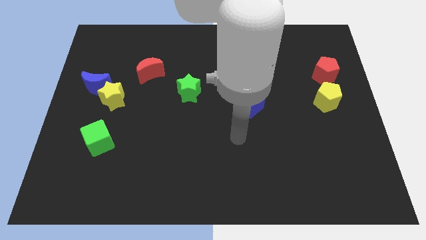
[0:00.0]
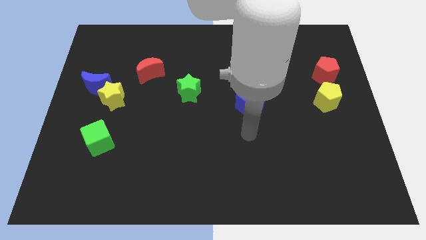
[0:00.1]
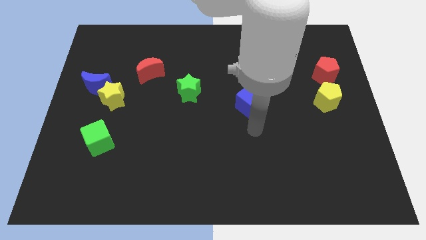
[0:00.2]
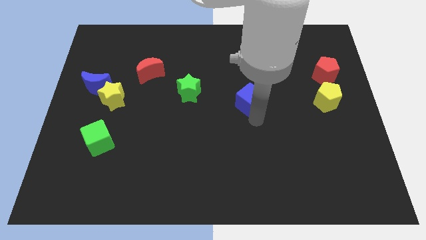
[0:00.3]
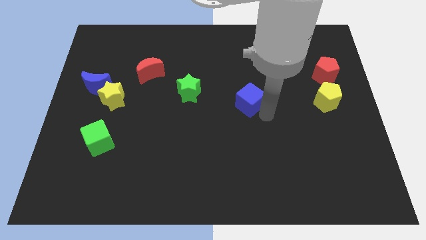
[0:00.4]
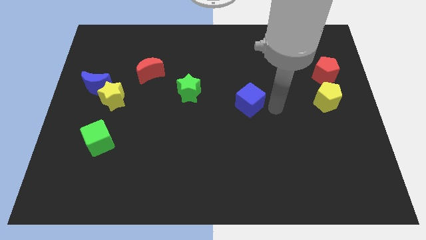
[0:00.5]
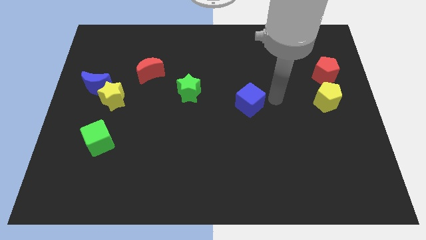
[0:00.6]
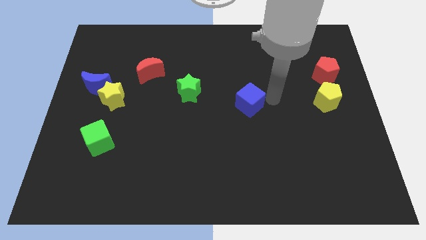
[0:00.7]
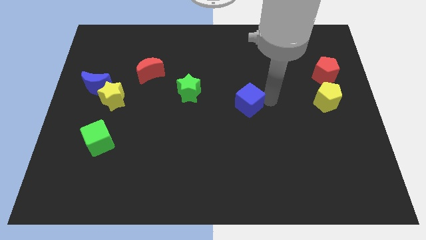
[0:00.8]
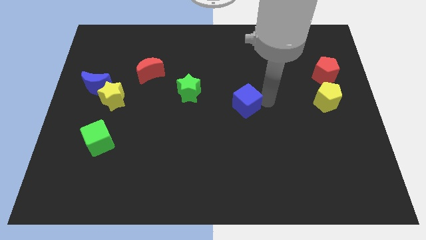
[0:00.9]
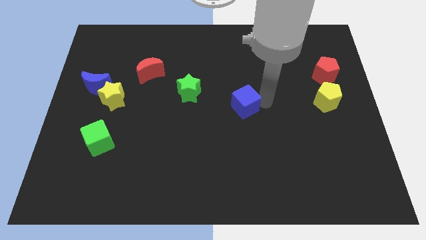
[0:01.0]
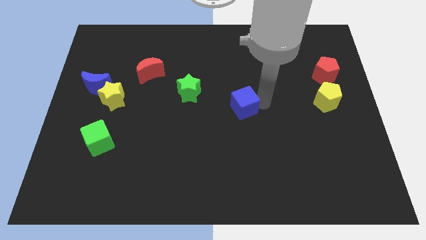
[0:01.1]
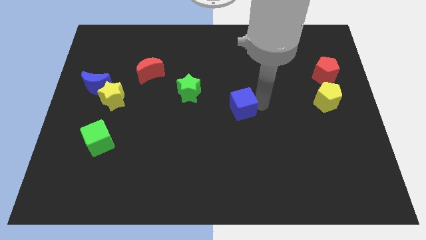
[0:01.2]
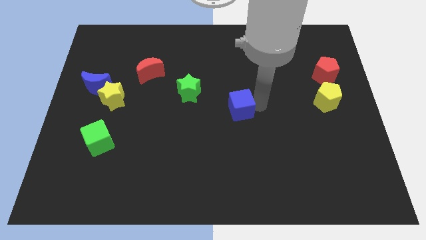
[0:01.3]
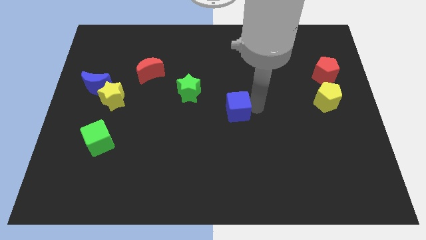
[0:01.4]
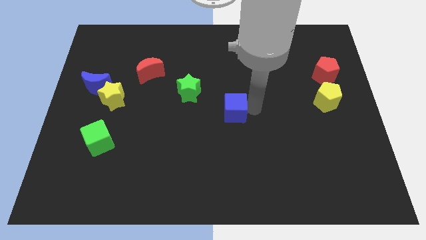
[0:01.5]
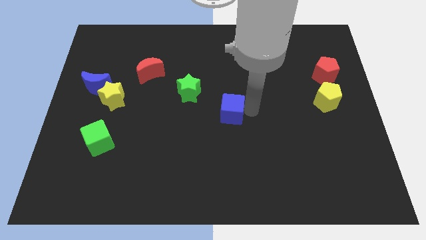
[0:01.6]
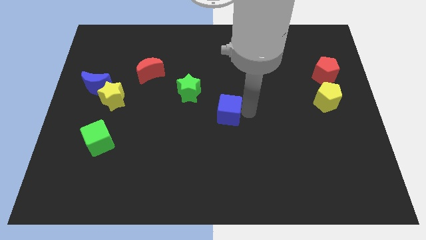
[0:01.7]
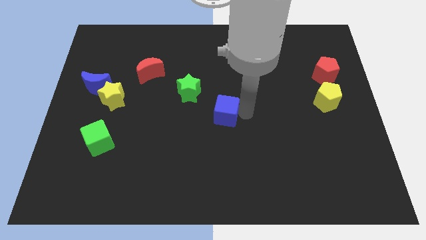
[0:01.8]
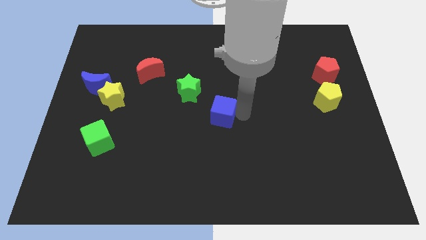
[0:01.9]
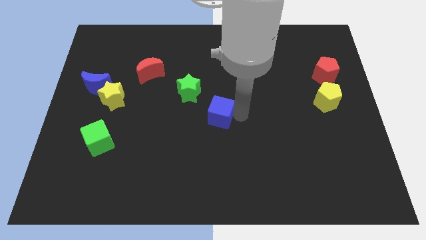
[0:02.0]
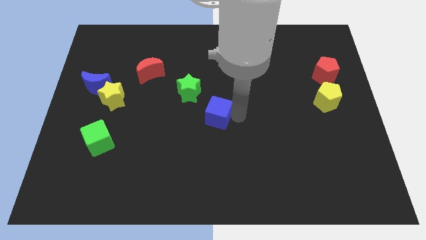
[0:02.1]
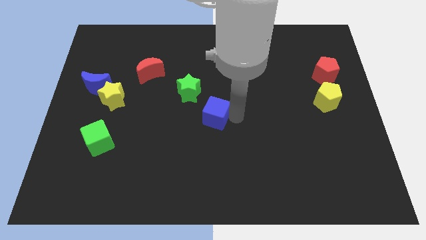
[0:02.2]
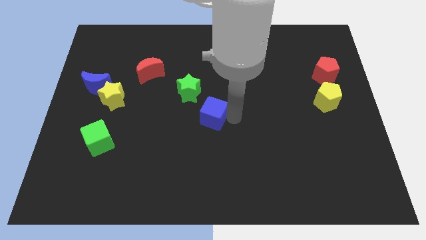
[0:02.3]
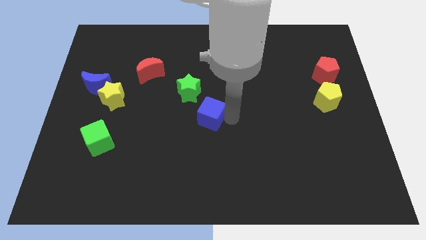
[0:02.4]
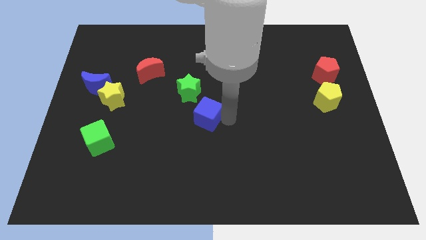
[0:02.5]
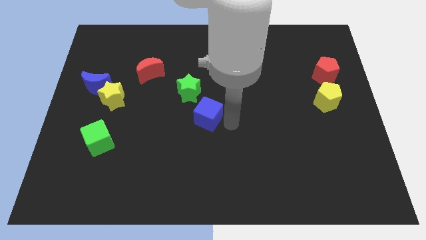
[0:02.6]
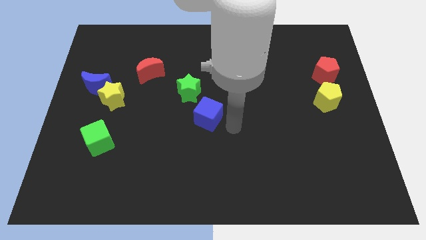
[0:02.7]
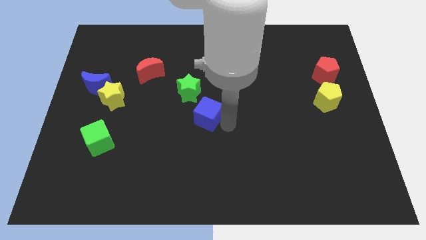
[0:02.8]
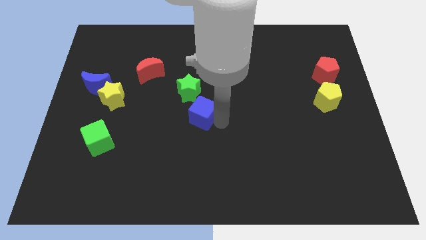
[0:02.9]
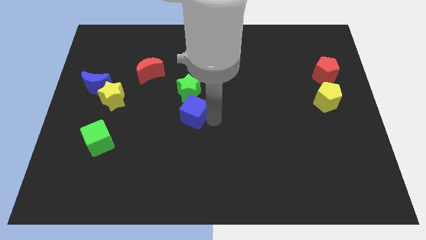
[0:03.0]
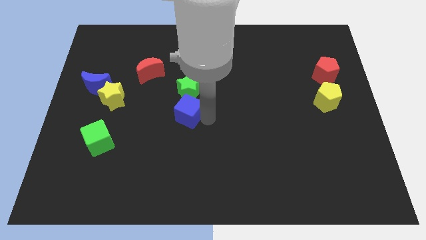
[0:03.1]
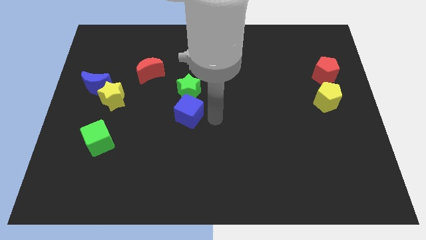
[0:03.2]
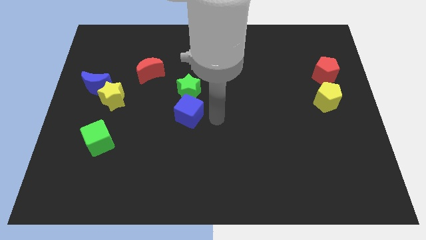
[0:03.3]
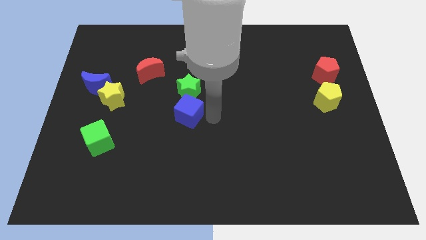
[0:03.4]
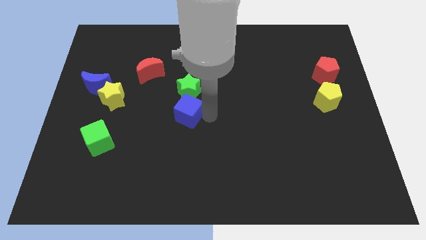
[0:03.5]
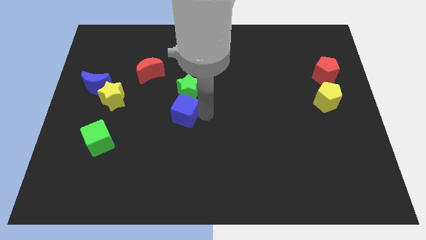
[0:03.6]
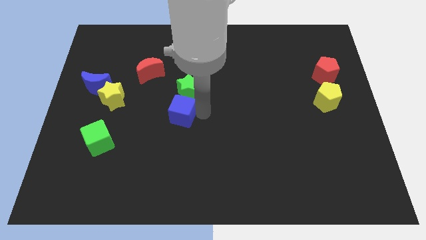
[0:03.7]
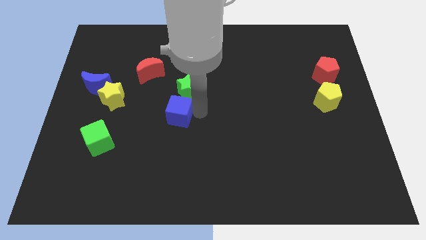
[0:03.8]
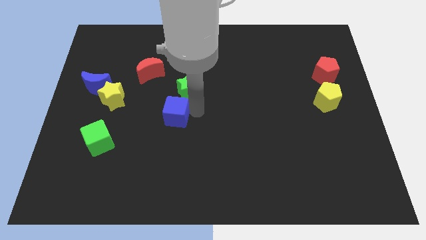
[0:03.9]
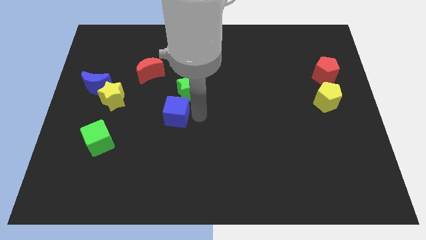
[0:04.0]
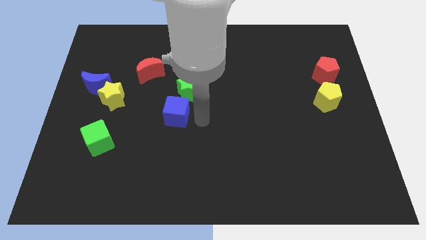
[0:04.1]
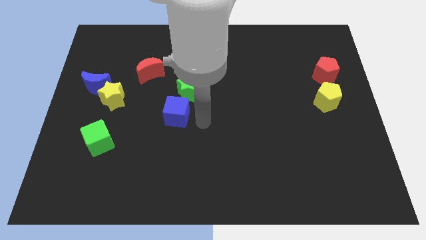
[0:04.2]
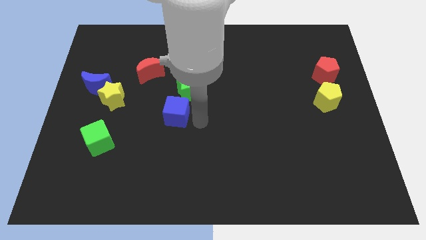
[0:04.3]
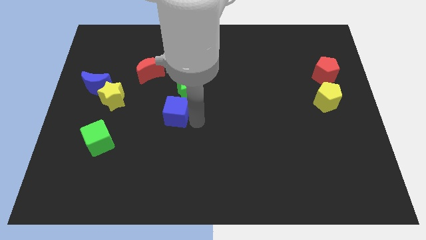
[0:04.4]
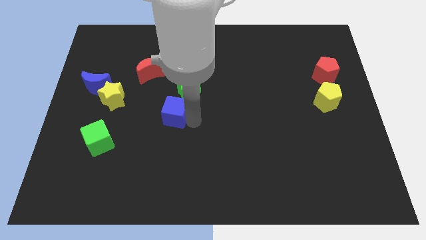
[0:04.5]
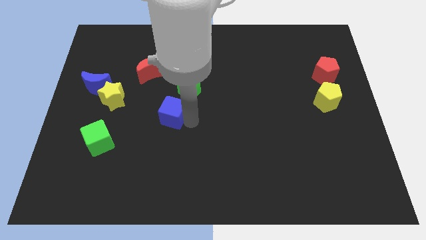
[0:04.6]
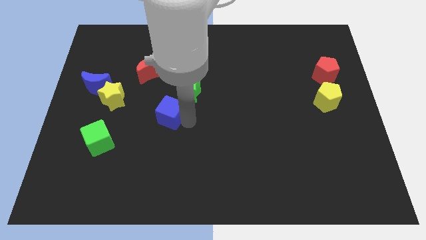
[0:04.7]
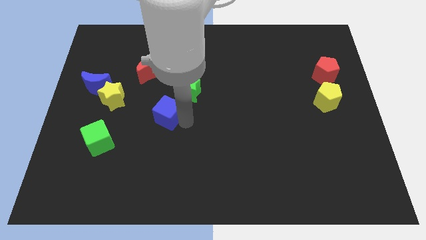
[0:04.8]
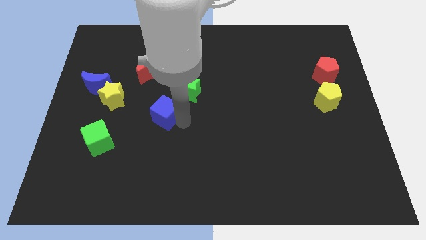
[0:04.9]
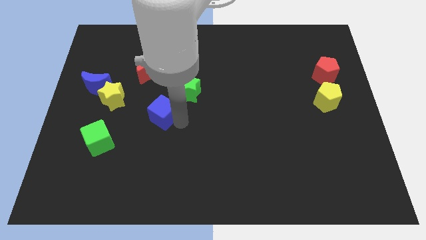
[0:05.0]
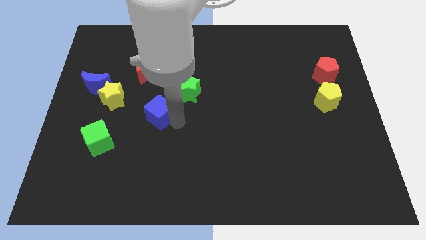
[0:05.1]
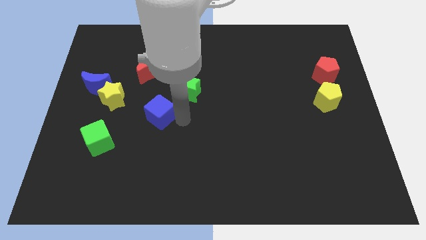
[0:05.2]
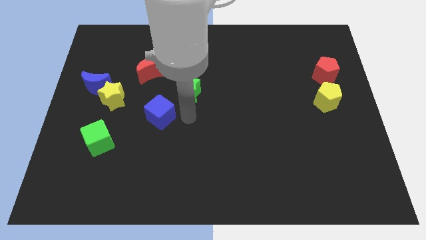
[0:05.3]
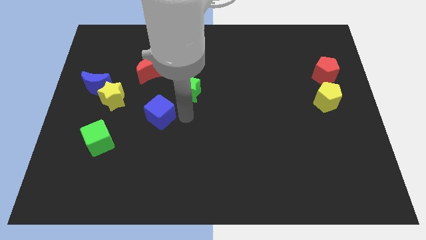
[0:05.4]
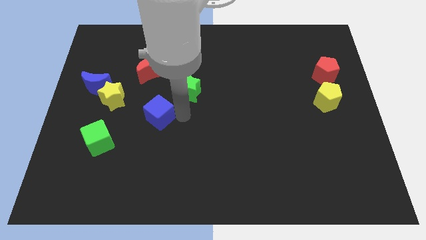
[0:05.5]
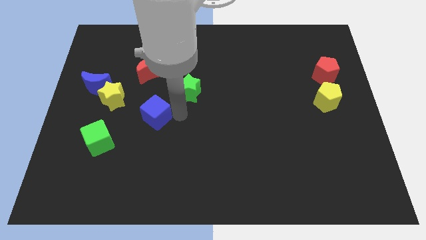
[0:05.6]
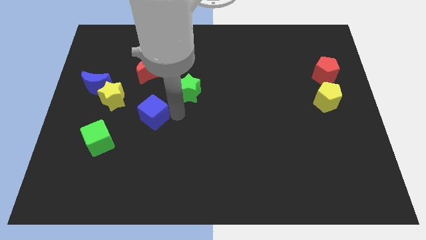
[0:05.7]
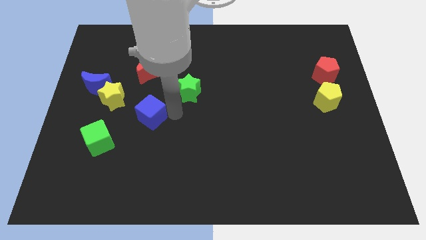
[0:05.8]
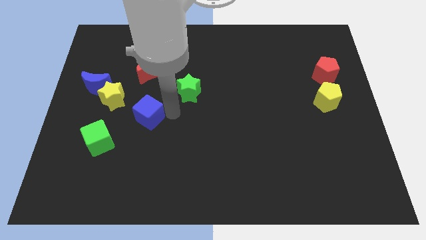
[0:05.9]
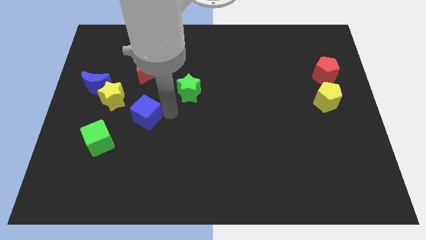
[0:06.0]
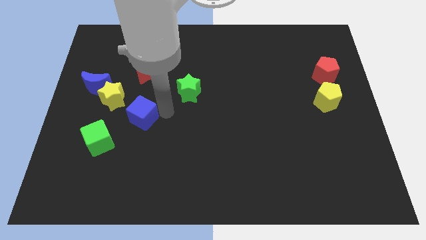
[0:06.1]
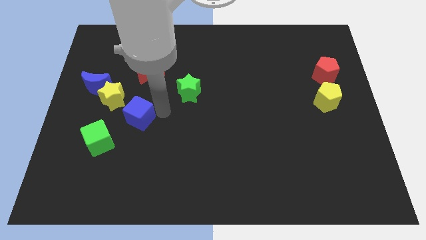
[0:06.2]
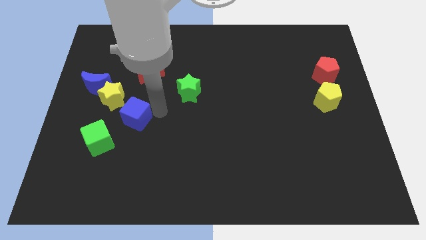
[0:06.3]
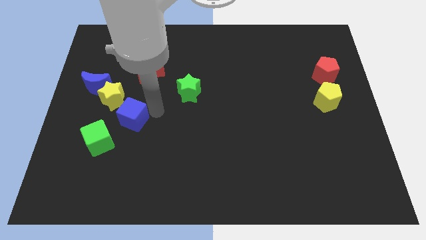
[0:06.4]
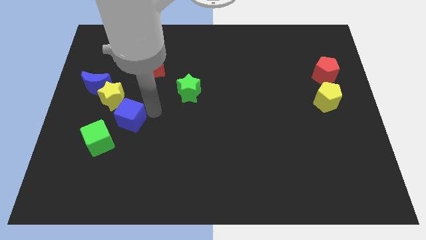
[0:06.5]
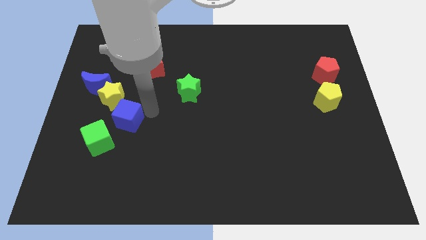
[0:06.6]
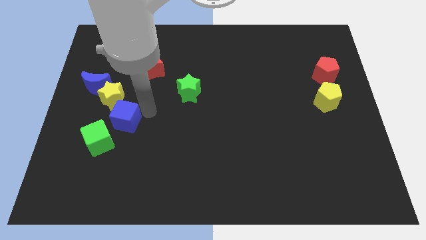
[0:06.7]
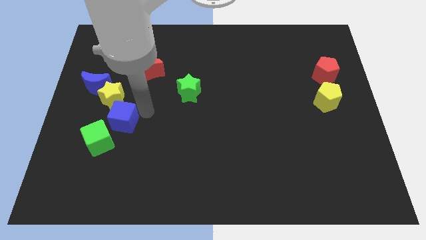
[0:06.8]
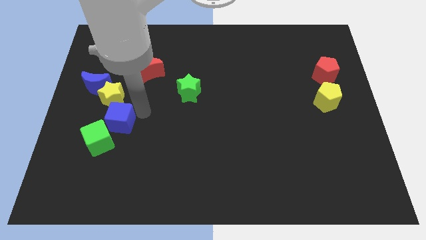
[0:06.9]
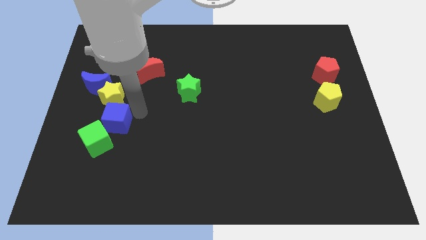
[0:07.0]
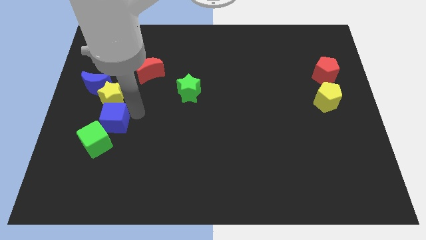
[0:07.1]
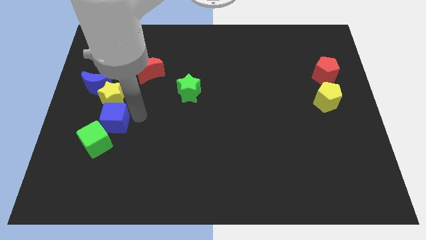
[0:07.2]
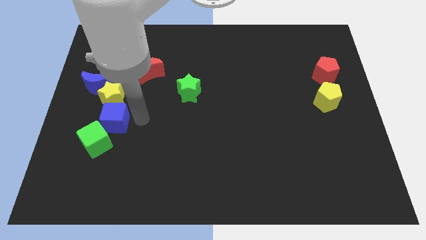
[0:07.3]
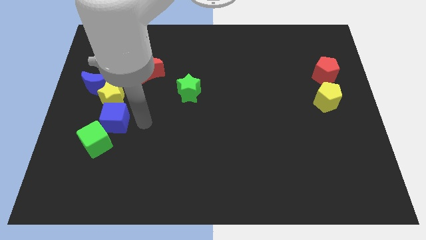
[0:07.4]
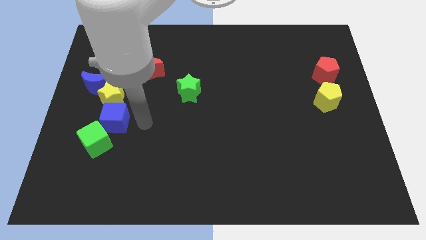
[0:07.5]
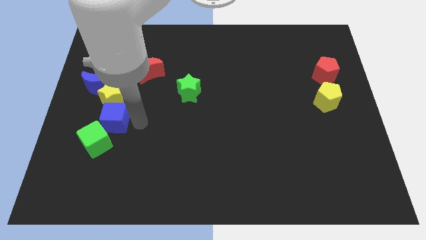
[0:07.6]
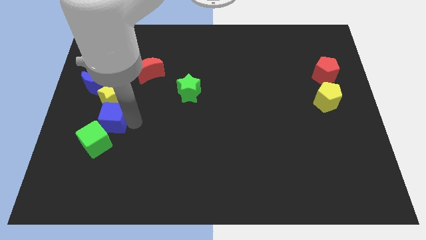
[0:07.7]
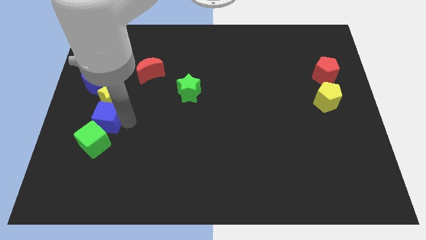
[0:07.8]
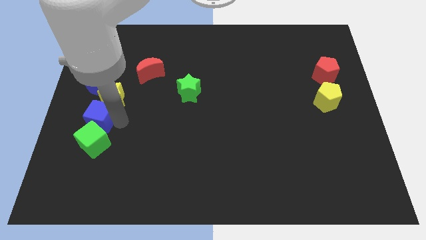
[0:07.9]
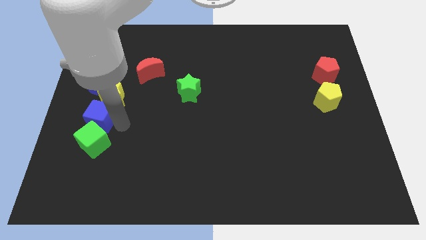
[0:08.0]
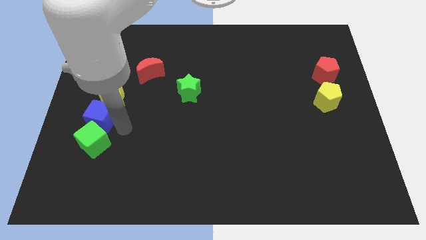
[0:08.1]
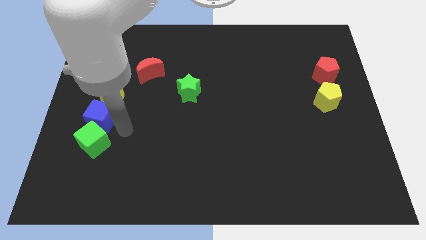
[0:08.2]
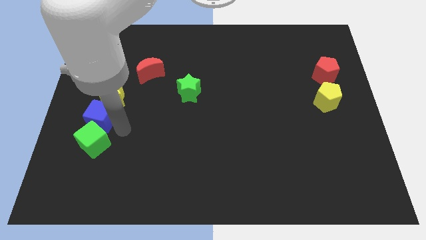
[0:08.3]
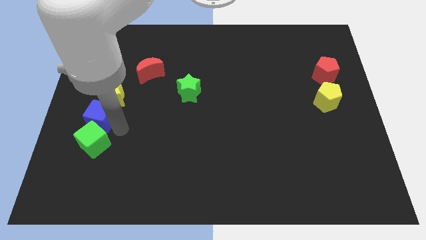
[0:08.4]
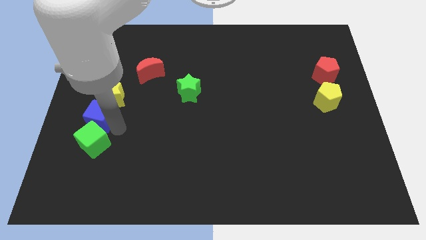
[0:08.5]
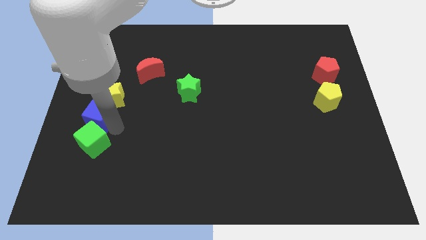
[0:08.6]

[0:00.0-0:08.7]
put the blue cube to the left side
